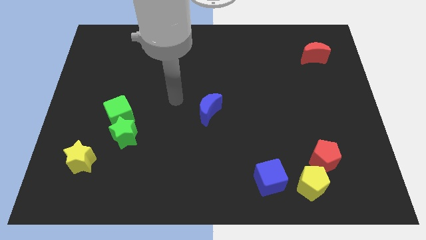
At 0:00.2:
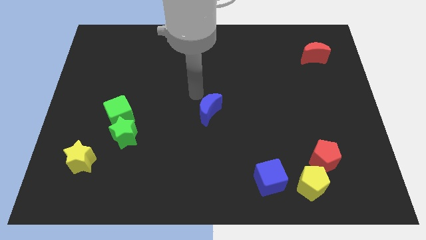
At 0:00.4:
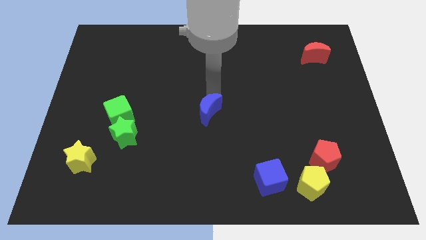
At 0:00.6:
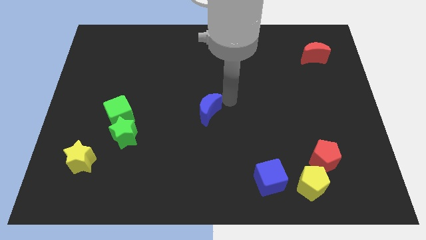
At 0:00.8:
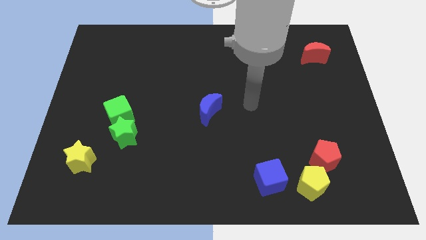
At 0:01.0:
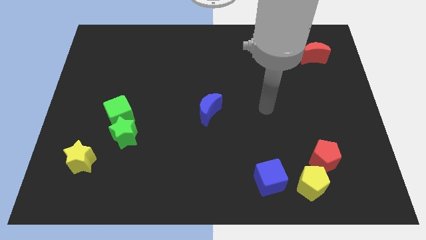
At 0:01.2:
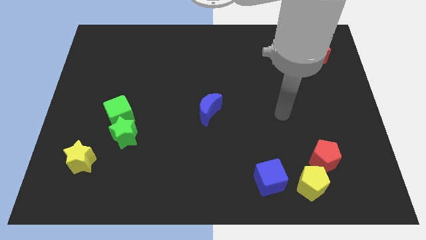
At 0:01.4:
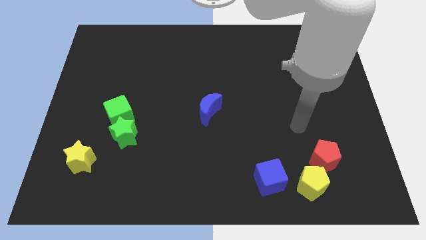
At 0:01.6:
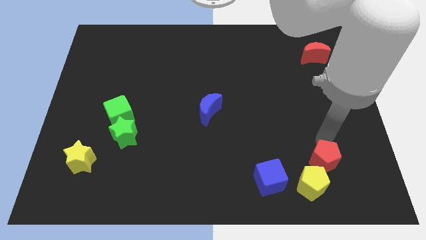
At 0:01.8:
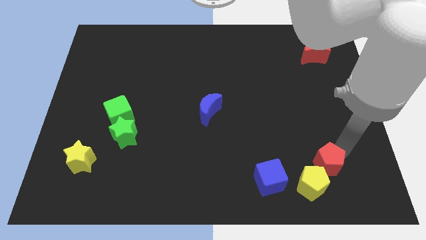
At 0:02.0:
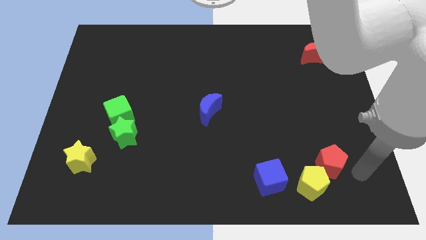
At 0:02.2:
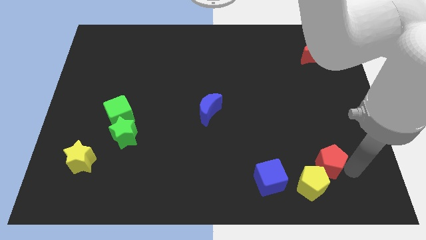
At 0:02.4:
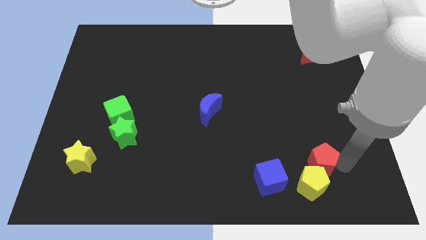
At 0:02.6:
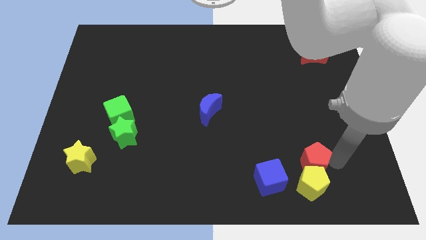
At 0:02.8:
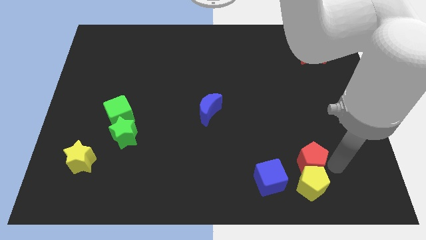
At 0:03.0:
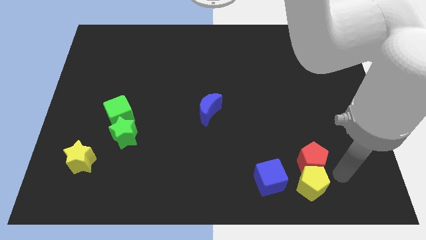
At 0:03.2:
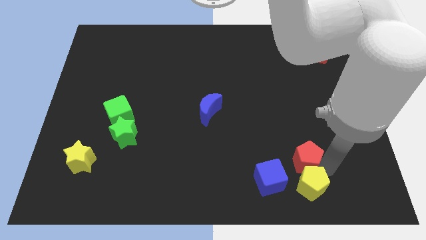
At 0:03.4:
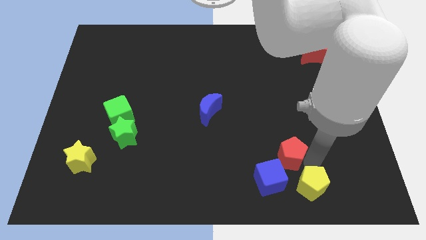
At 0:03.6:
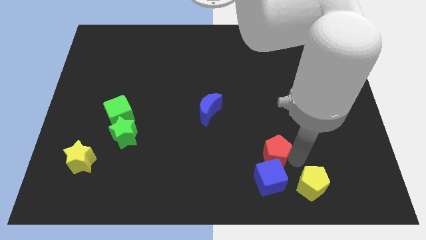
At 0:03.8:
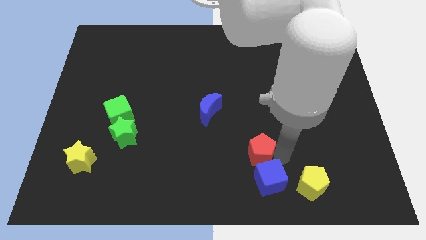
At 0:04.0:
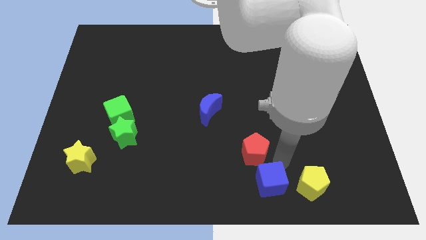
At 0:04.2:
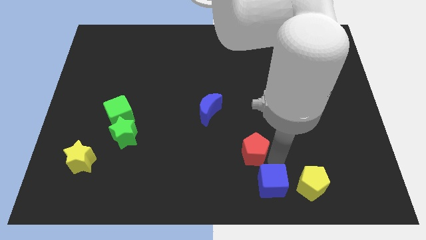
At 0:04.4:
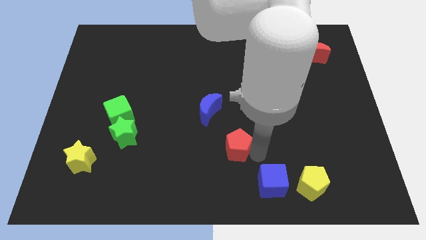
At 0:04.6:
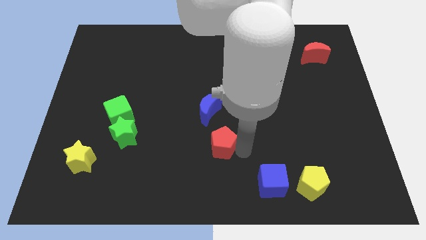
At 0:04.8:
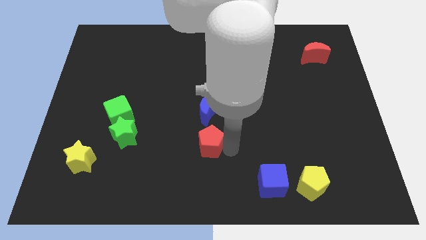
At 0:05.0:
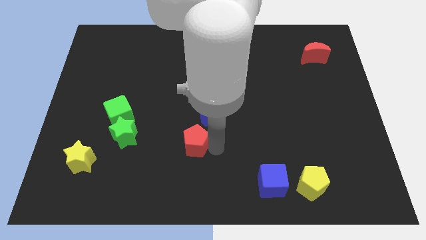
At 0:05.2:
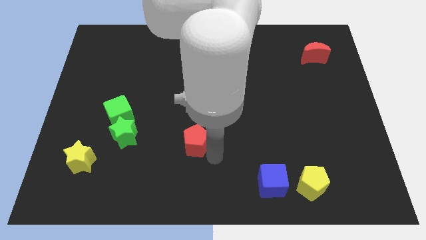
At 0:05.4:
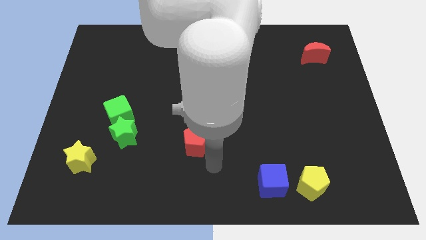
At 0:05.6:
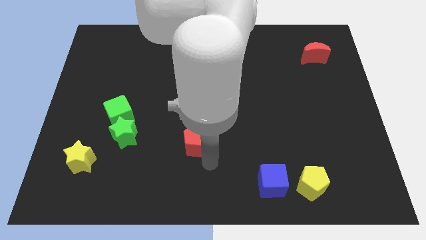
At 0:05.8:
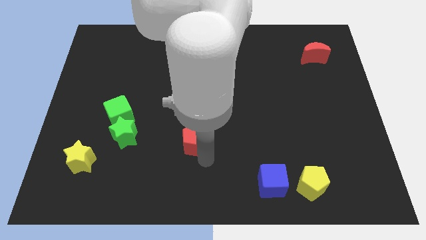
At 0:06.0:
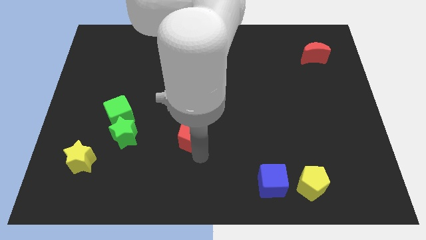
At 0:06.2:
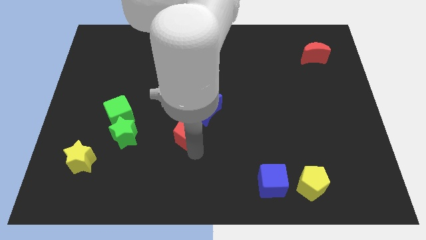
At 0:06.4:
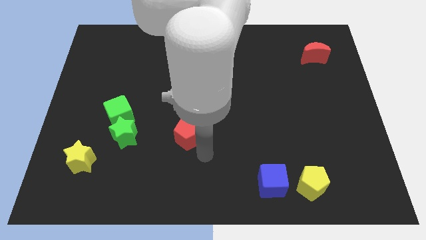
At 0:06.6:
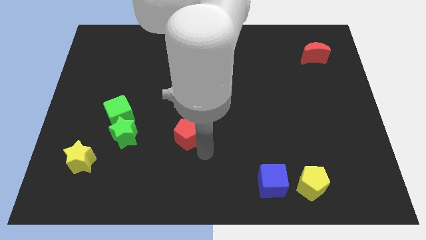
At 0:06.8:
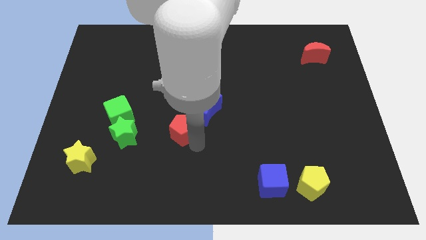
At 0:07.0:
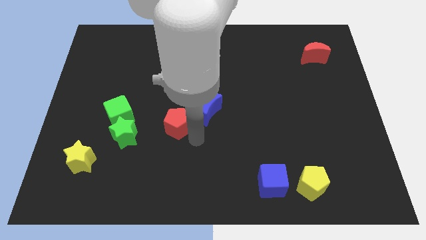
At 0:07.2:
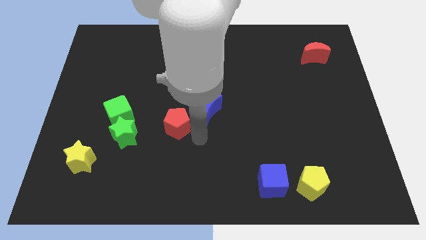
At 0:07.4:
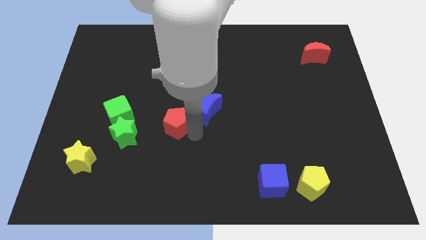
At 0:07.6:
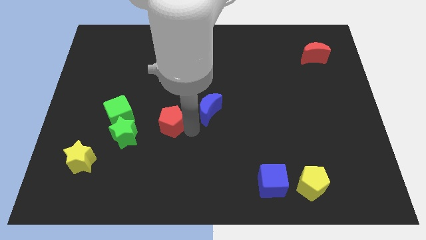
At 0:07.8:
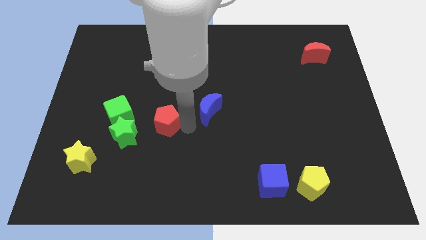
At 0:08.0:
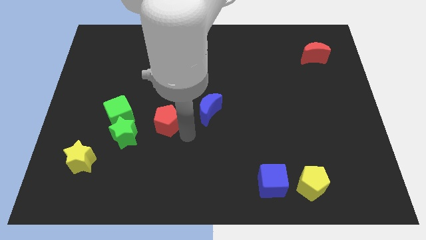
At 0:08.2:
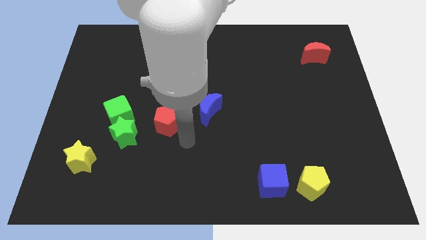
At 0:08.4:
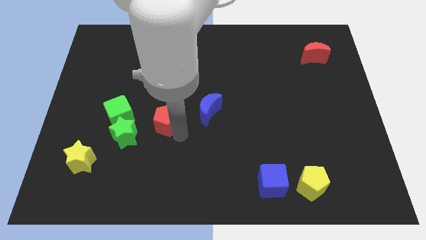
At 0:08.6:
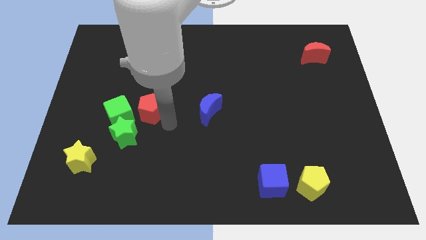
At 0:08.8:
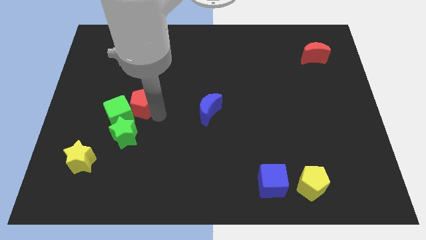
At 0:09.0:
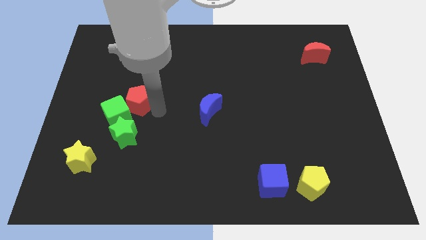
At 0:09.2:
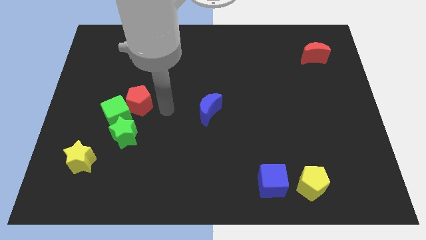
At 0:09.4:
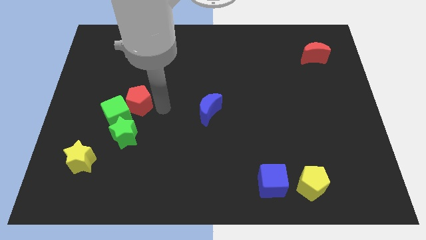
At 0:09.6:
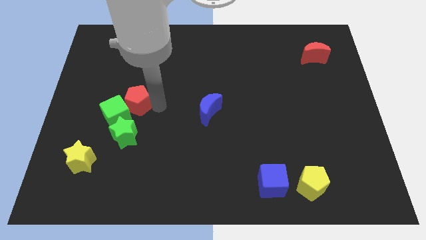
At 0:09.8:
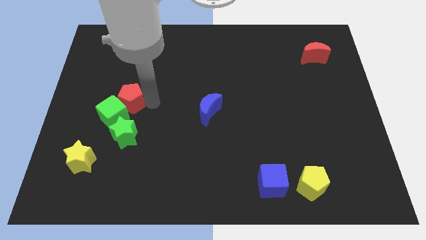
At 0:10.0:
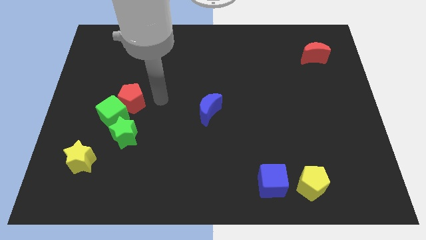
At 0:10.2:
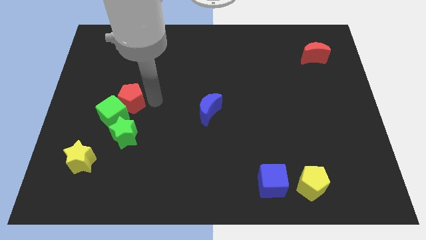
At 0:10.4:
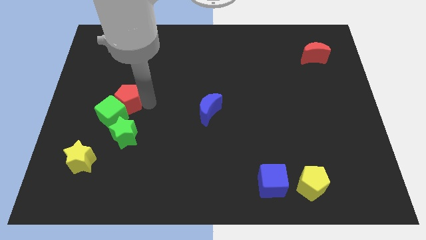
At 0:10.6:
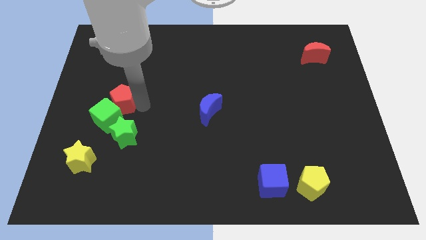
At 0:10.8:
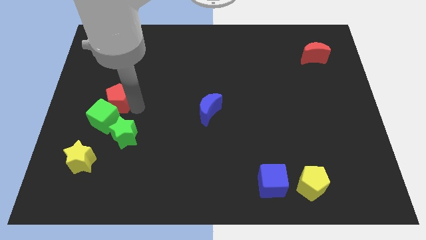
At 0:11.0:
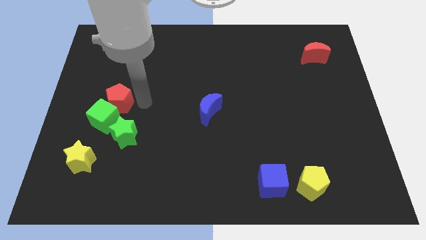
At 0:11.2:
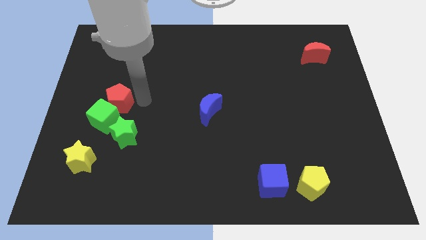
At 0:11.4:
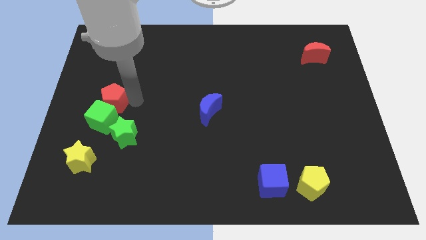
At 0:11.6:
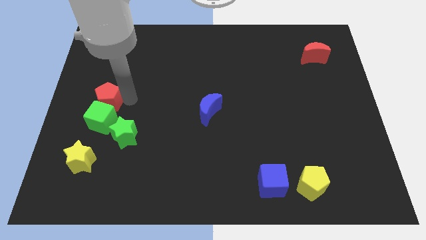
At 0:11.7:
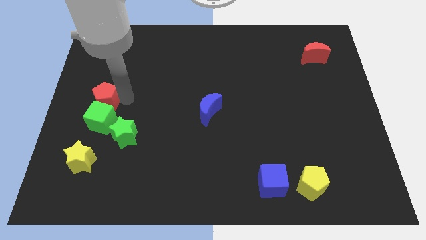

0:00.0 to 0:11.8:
put the red pentagon to the left side

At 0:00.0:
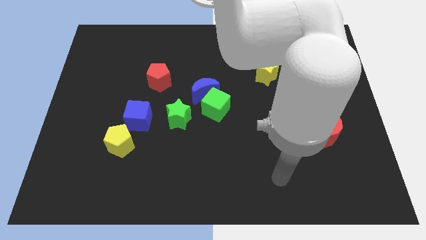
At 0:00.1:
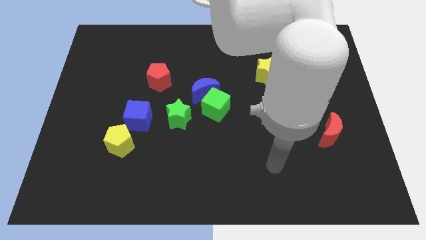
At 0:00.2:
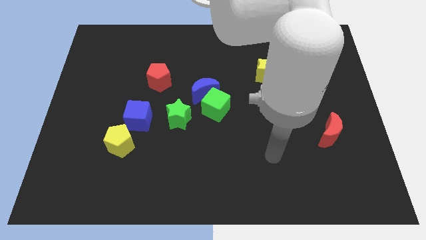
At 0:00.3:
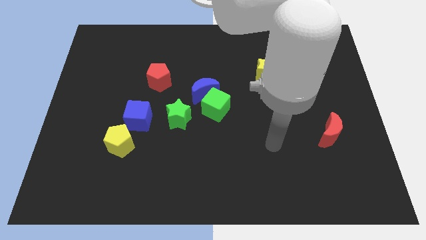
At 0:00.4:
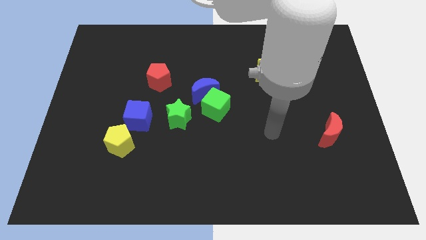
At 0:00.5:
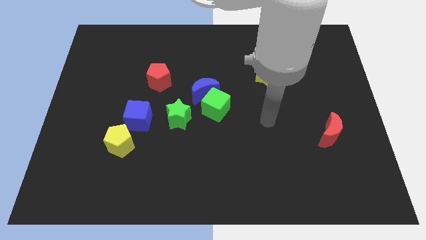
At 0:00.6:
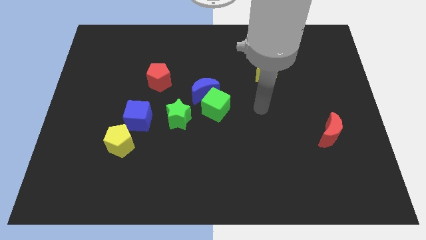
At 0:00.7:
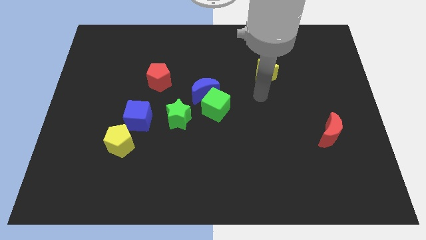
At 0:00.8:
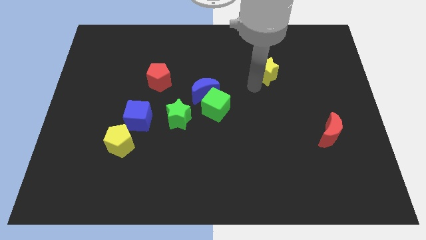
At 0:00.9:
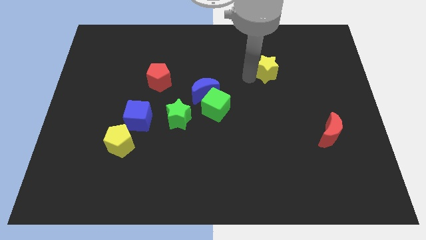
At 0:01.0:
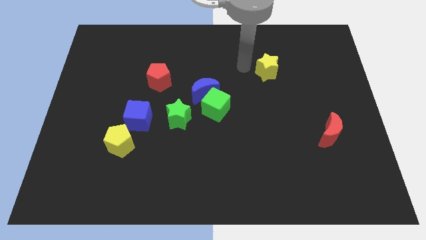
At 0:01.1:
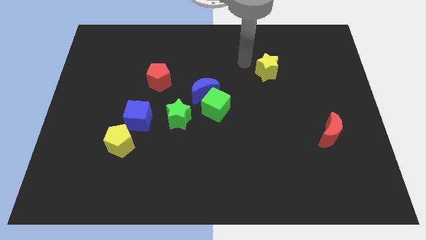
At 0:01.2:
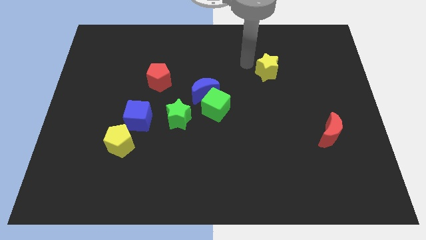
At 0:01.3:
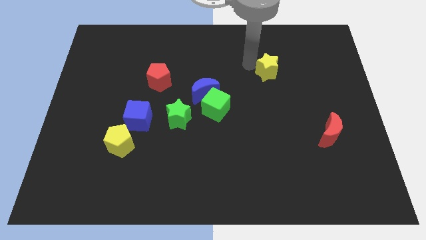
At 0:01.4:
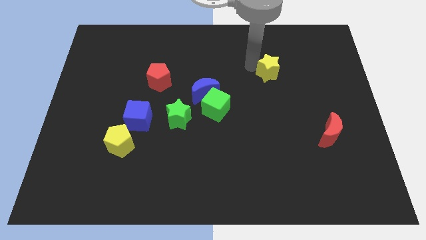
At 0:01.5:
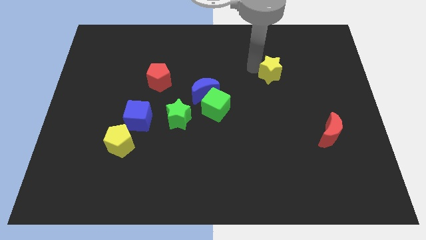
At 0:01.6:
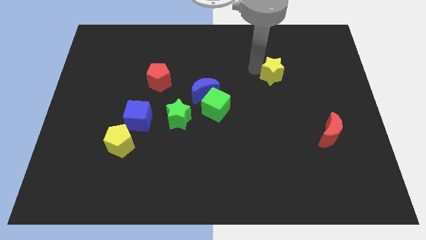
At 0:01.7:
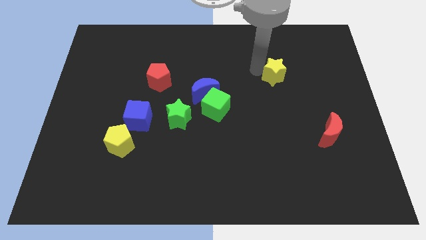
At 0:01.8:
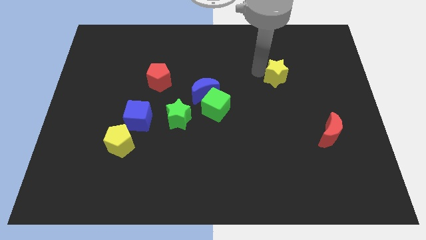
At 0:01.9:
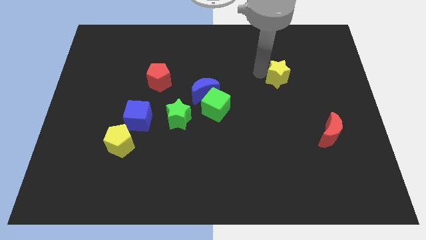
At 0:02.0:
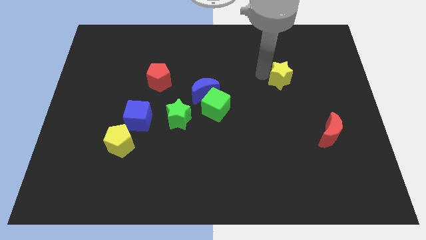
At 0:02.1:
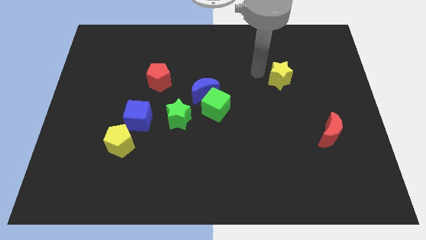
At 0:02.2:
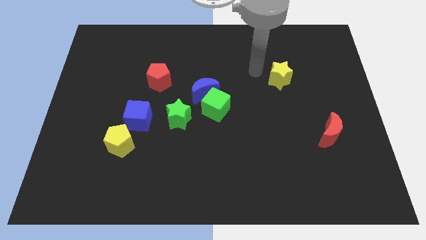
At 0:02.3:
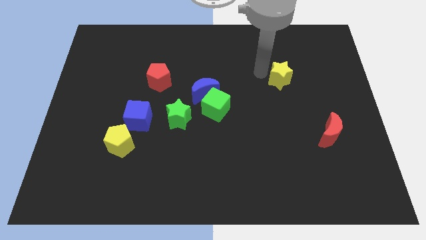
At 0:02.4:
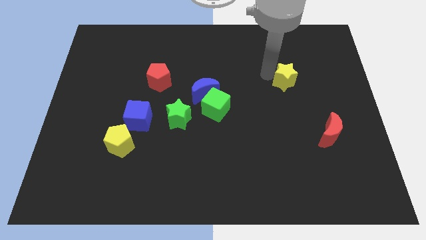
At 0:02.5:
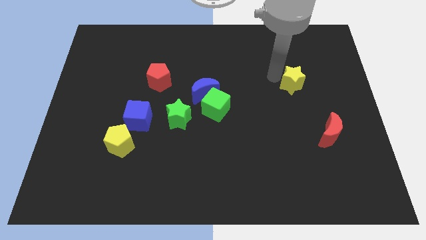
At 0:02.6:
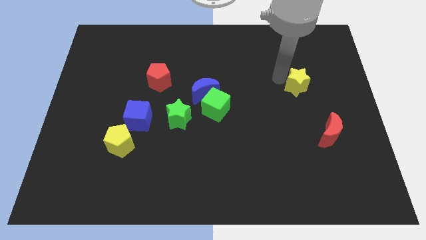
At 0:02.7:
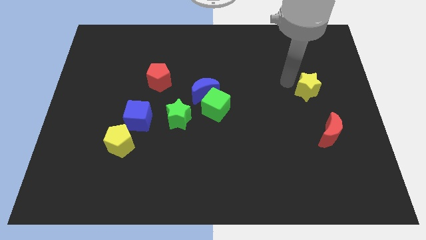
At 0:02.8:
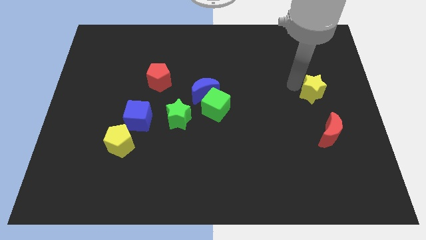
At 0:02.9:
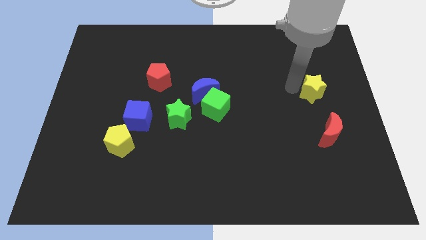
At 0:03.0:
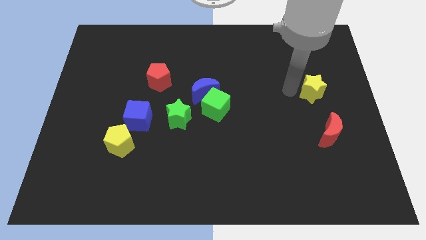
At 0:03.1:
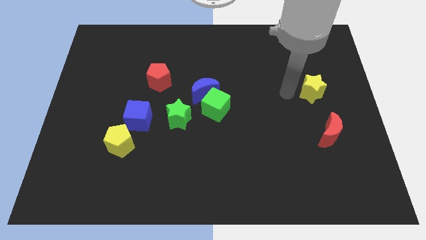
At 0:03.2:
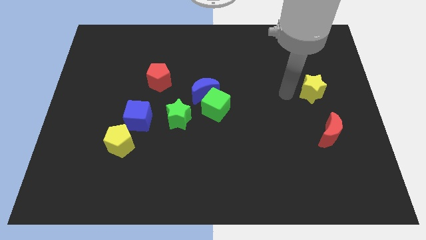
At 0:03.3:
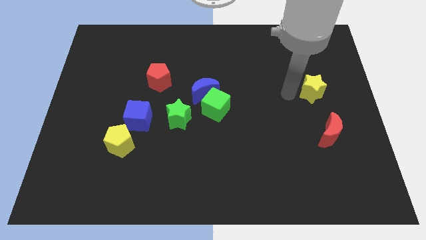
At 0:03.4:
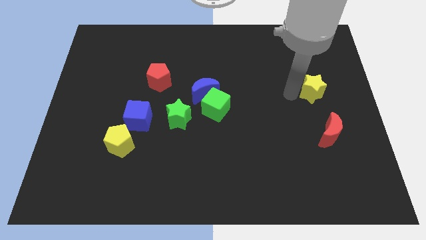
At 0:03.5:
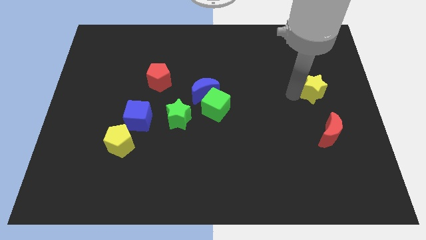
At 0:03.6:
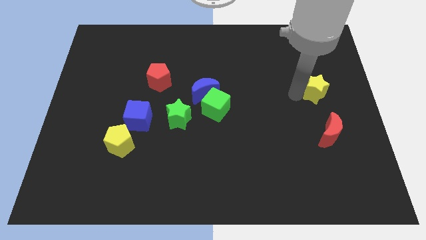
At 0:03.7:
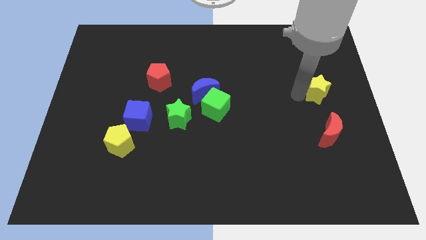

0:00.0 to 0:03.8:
move the yellow star to the right side of the board
